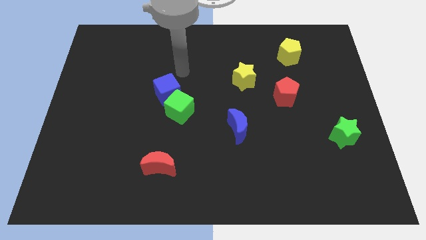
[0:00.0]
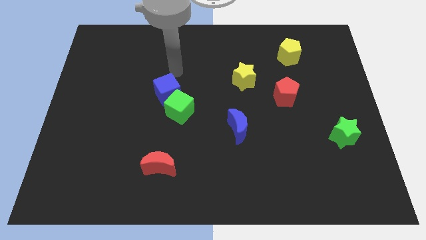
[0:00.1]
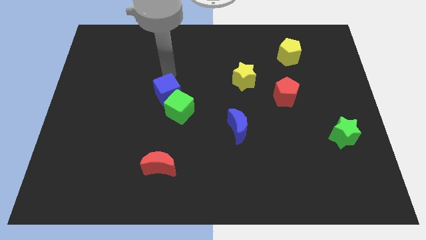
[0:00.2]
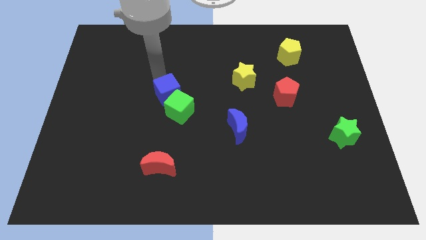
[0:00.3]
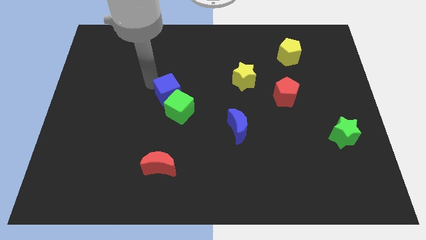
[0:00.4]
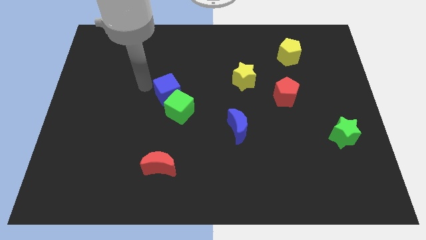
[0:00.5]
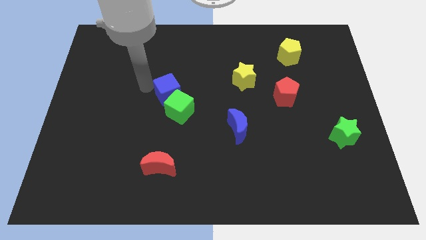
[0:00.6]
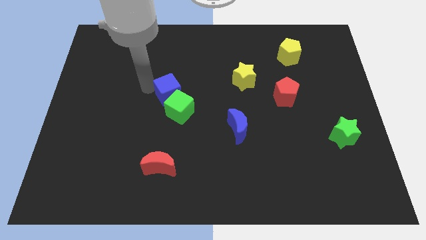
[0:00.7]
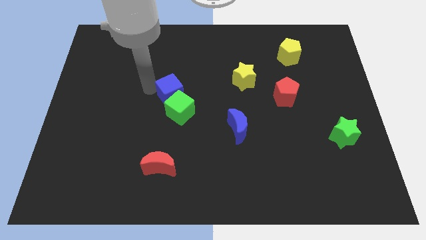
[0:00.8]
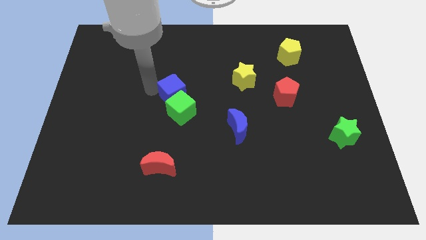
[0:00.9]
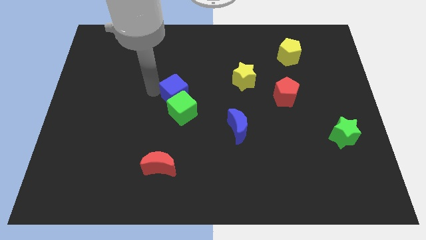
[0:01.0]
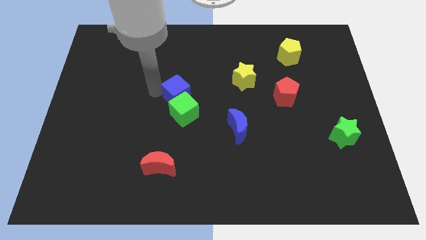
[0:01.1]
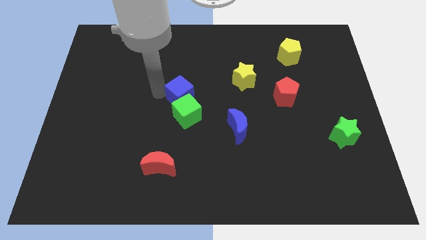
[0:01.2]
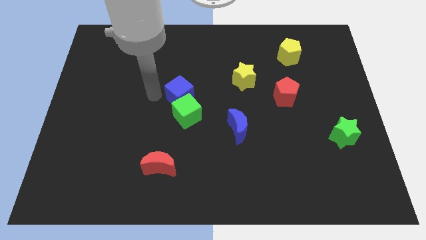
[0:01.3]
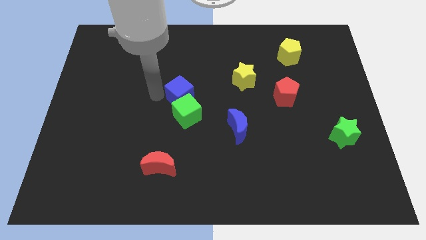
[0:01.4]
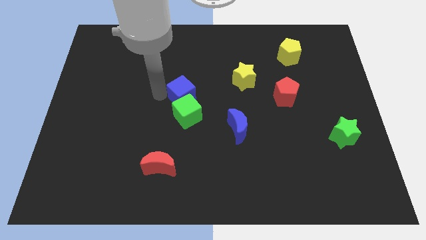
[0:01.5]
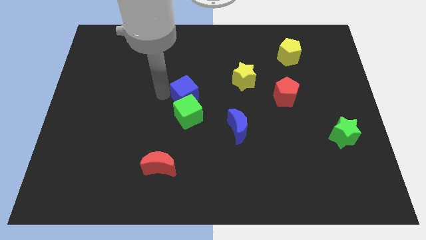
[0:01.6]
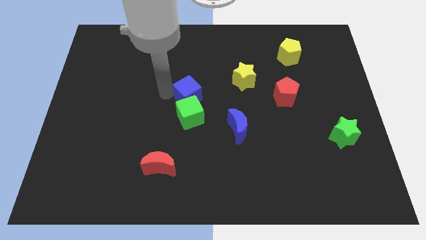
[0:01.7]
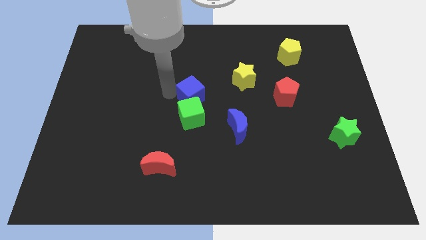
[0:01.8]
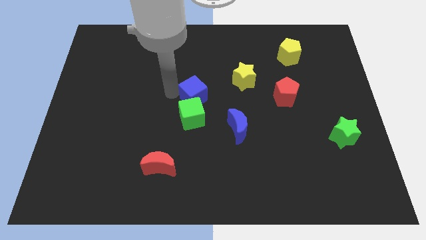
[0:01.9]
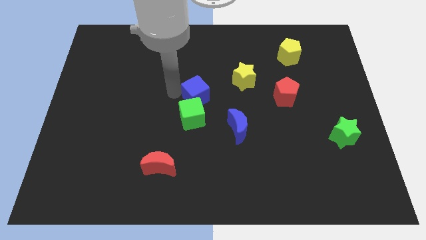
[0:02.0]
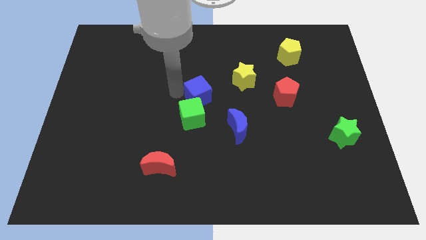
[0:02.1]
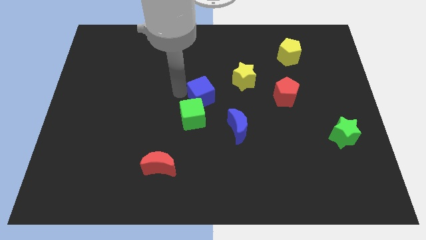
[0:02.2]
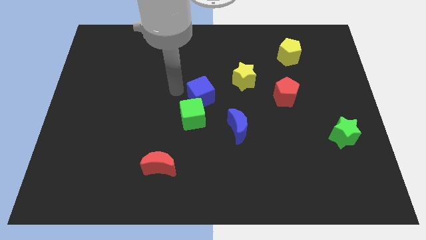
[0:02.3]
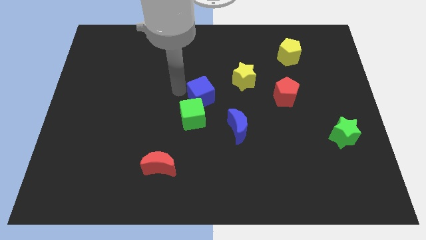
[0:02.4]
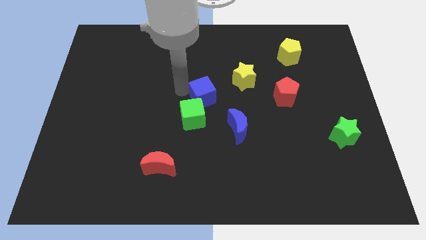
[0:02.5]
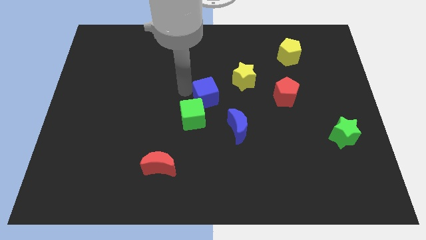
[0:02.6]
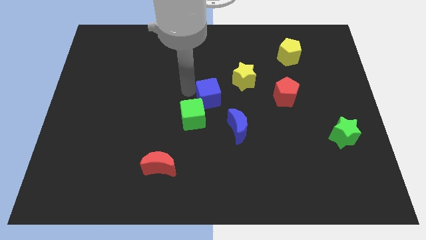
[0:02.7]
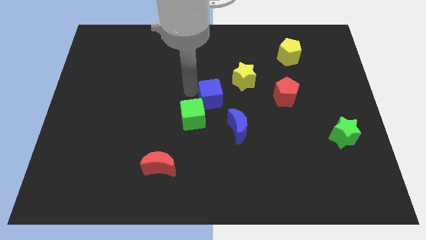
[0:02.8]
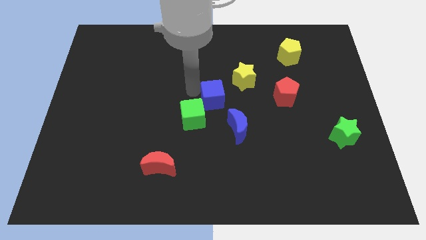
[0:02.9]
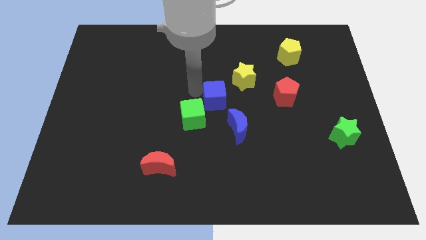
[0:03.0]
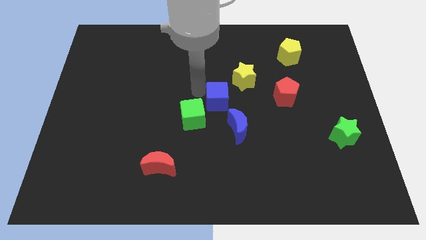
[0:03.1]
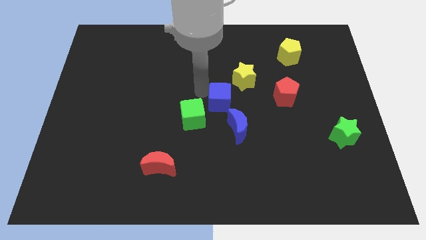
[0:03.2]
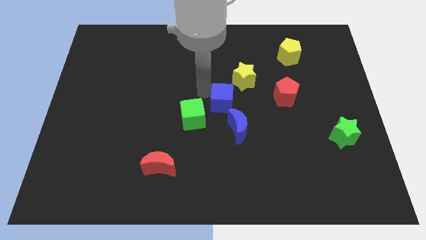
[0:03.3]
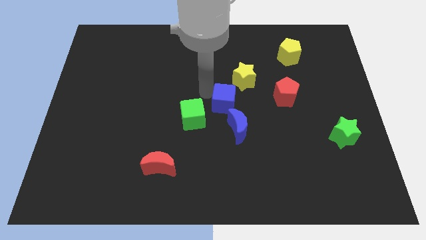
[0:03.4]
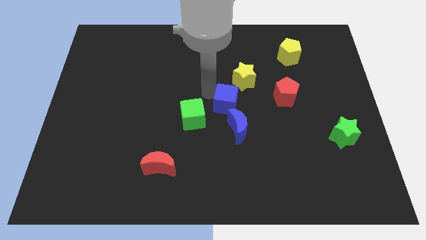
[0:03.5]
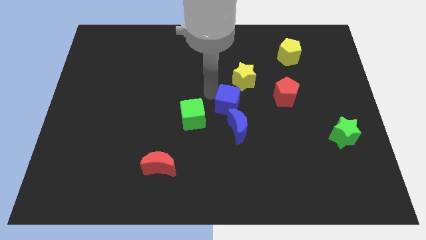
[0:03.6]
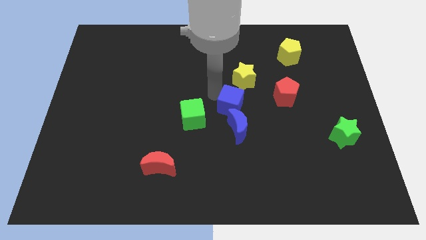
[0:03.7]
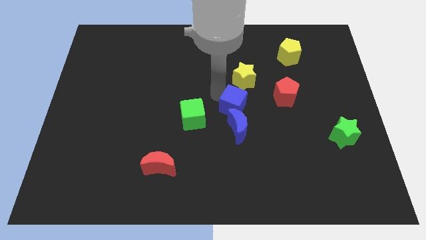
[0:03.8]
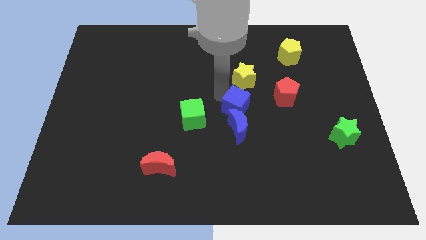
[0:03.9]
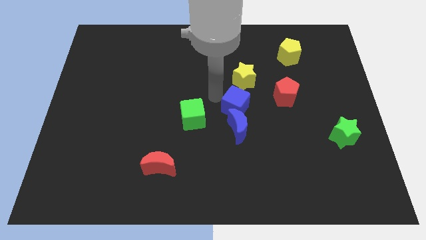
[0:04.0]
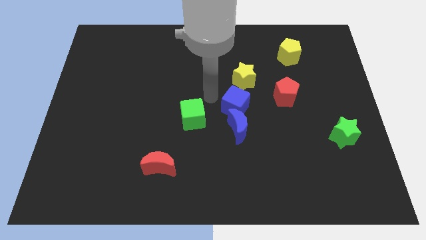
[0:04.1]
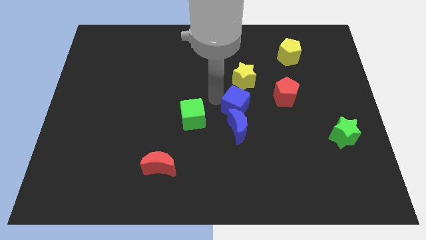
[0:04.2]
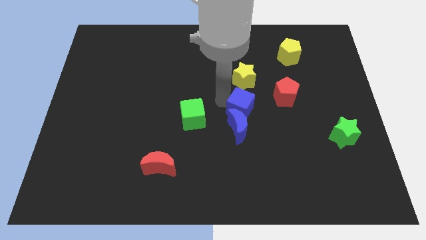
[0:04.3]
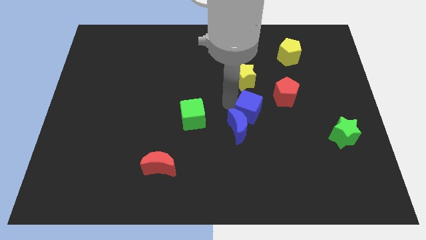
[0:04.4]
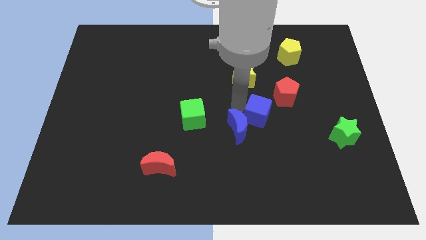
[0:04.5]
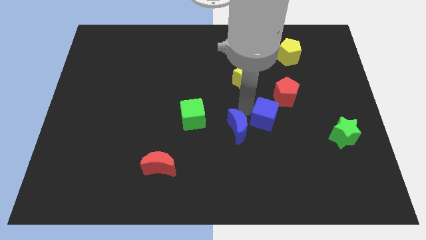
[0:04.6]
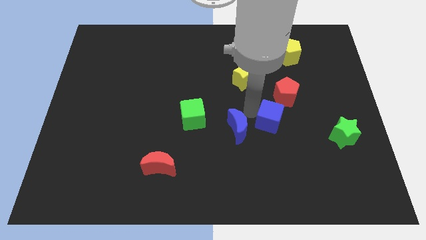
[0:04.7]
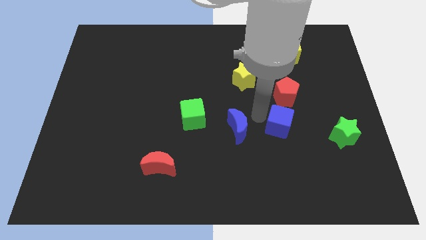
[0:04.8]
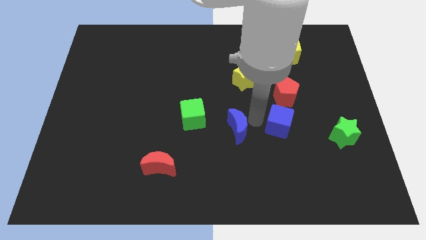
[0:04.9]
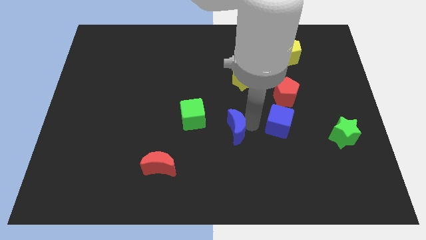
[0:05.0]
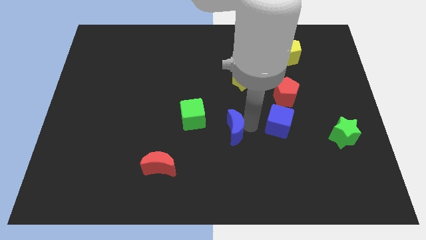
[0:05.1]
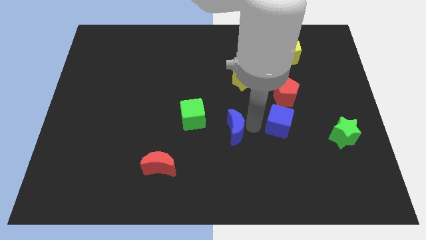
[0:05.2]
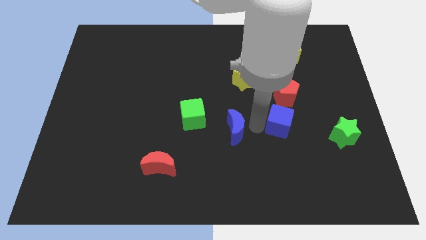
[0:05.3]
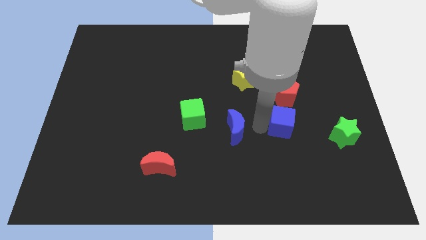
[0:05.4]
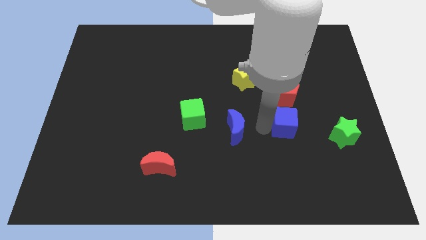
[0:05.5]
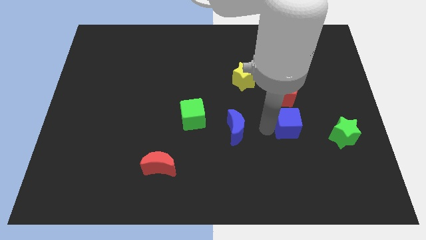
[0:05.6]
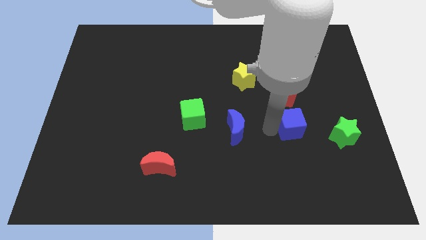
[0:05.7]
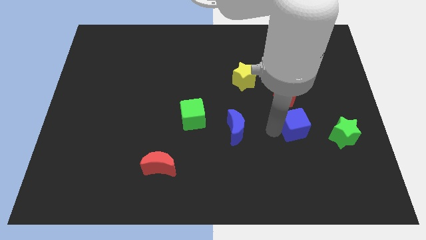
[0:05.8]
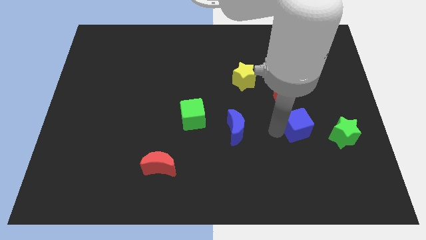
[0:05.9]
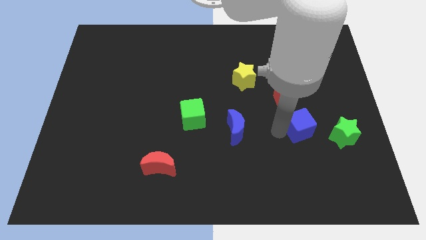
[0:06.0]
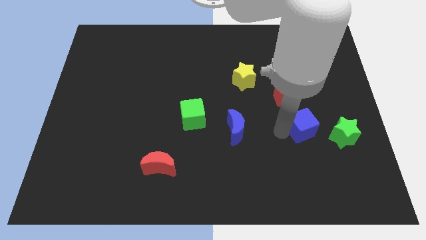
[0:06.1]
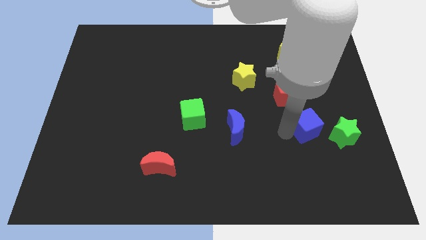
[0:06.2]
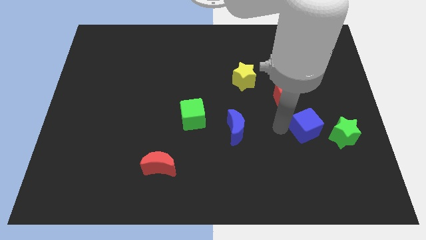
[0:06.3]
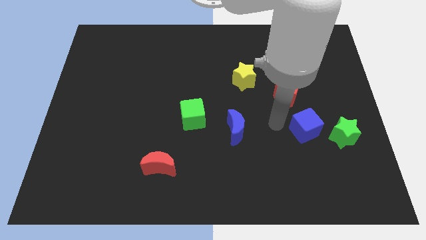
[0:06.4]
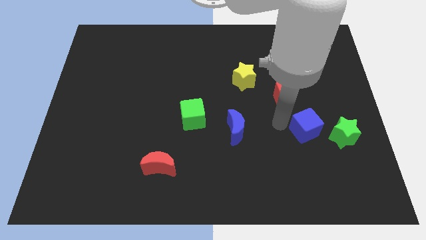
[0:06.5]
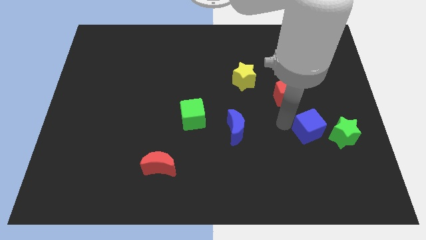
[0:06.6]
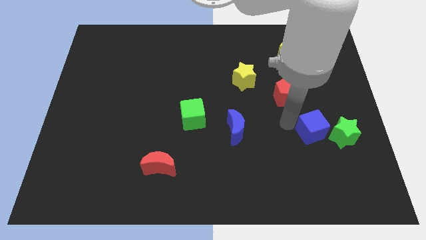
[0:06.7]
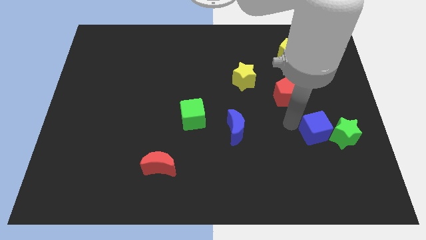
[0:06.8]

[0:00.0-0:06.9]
put the blue cube next to the green star

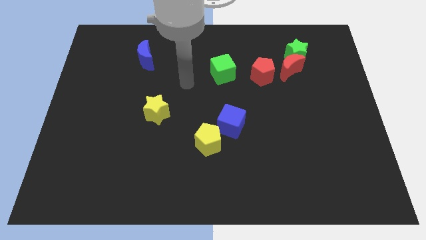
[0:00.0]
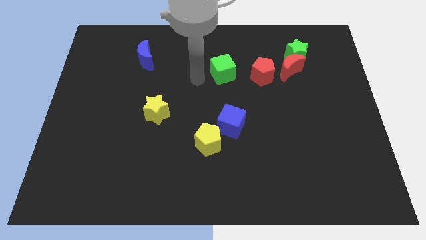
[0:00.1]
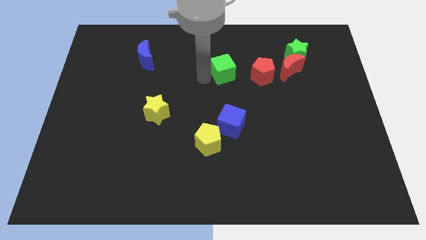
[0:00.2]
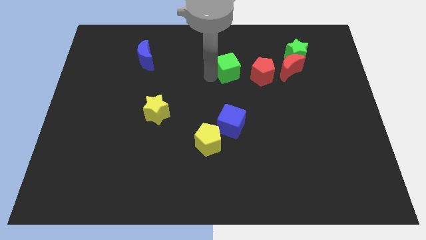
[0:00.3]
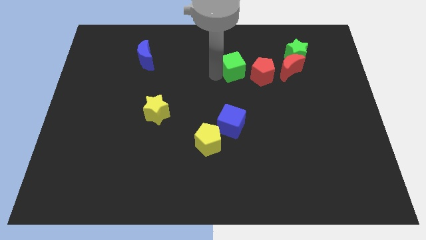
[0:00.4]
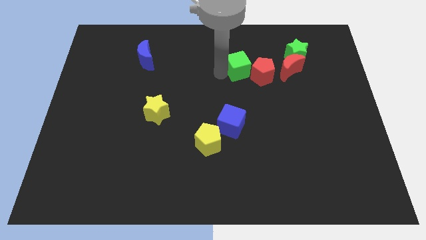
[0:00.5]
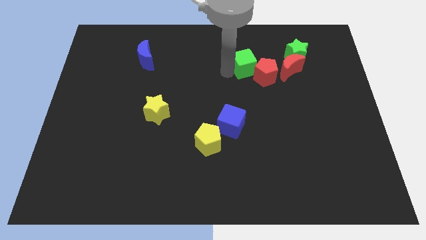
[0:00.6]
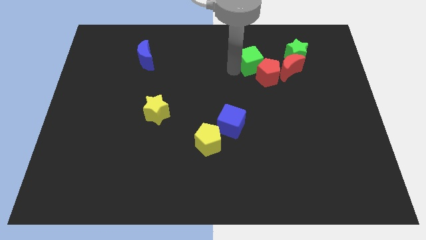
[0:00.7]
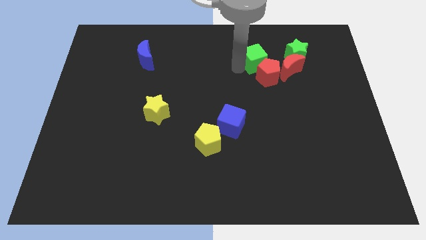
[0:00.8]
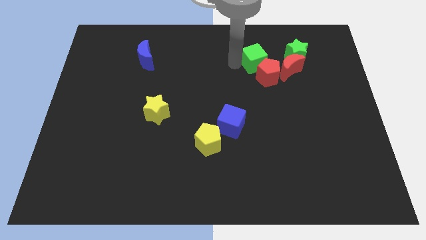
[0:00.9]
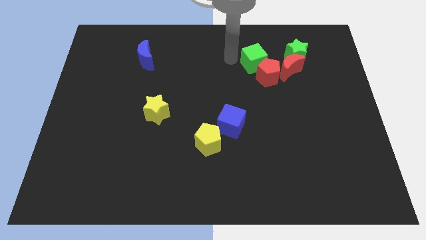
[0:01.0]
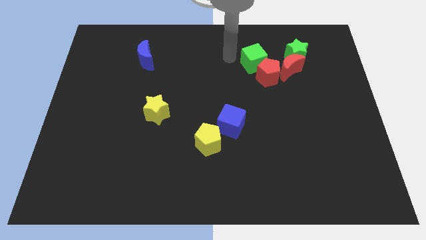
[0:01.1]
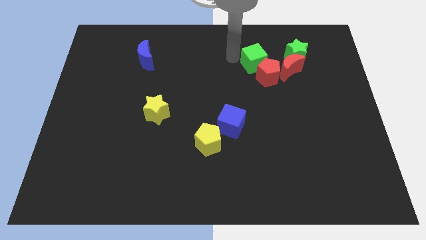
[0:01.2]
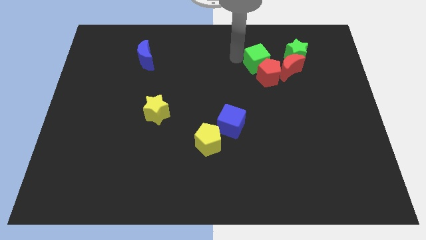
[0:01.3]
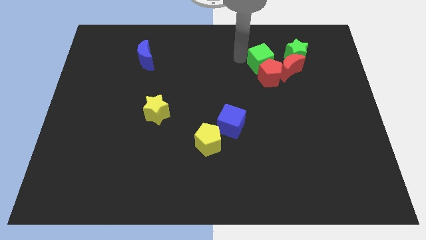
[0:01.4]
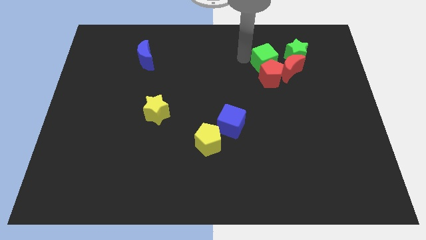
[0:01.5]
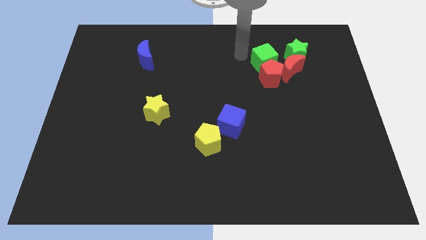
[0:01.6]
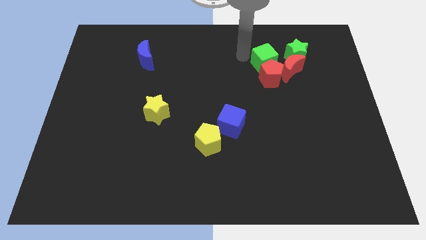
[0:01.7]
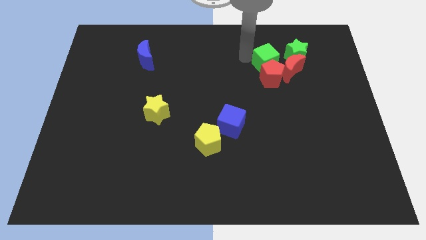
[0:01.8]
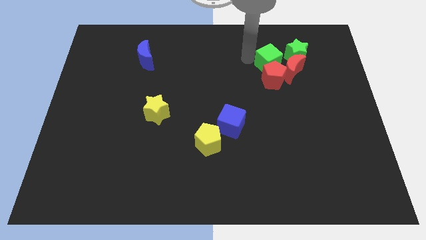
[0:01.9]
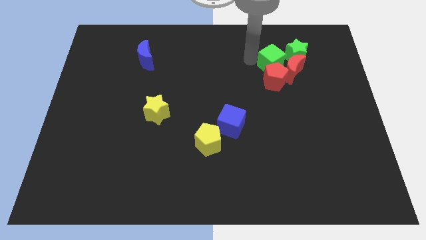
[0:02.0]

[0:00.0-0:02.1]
put the green cube to the red moon
